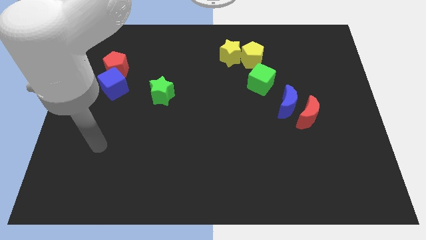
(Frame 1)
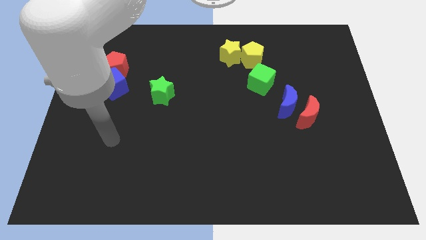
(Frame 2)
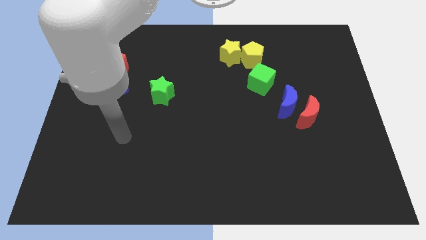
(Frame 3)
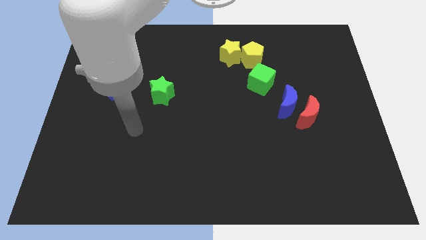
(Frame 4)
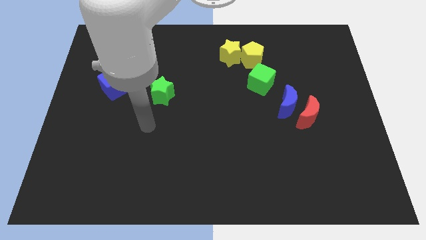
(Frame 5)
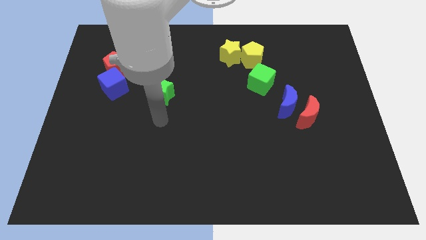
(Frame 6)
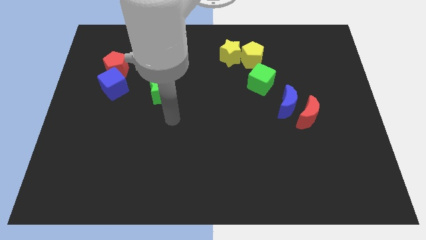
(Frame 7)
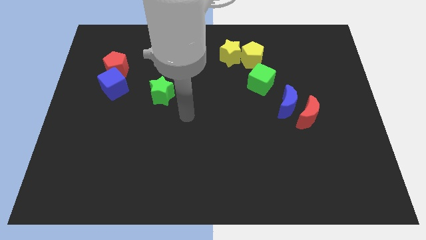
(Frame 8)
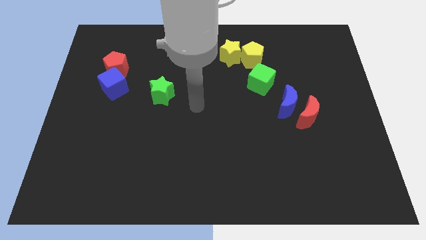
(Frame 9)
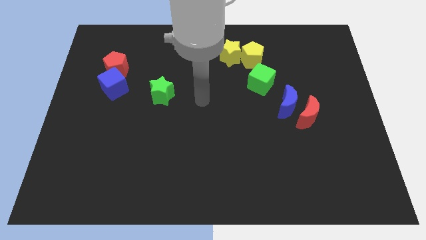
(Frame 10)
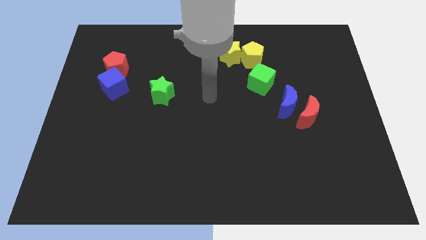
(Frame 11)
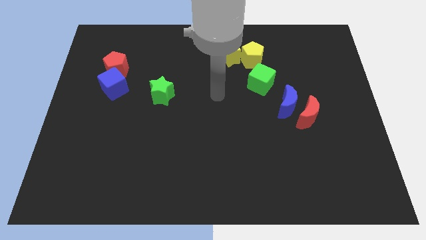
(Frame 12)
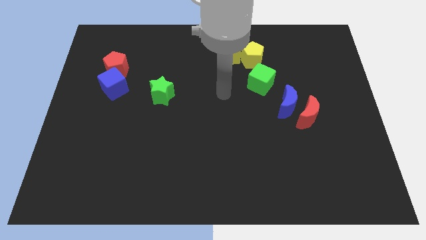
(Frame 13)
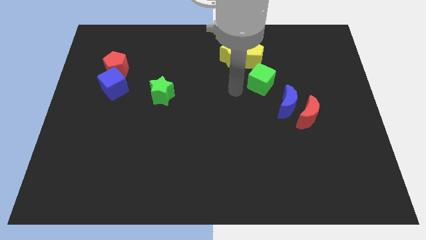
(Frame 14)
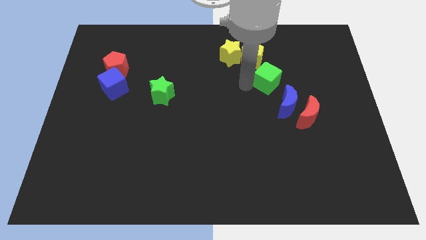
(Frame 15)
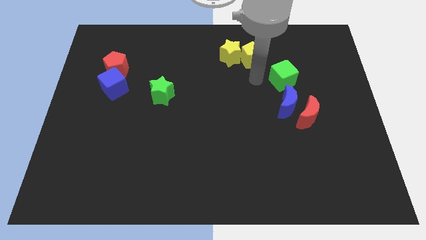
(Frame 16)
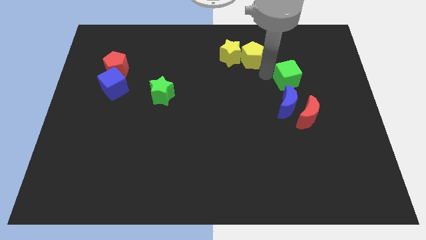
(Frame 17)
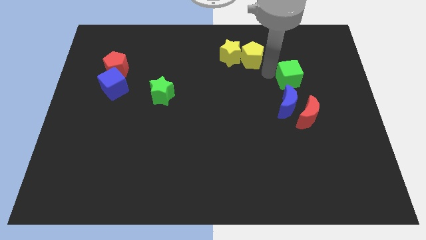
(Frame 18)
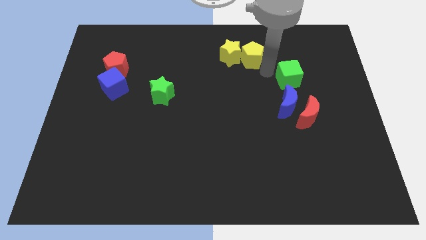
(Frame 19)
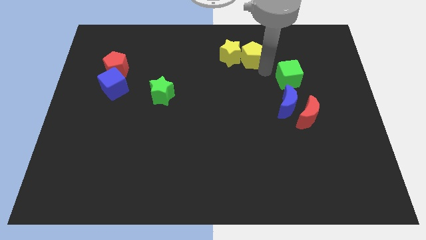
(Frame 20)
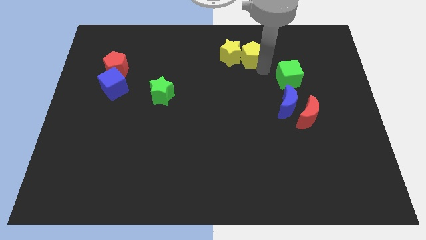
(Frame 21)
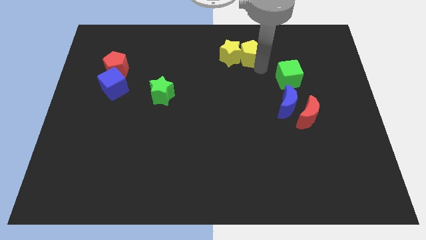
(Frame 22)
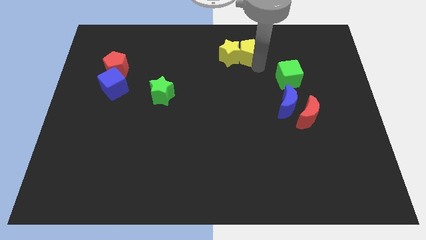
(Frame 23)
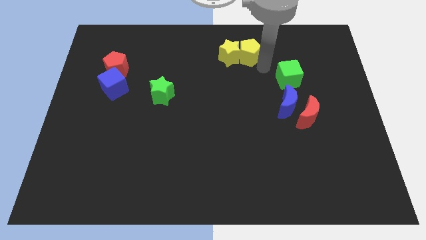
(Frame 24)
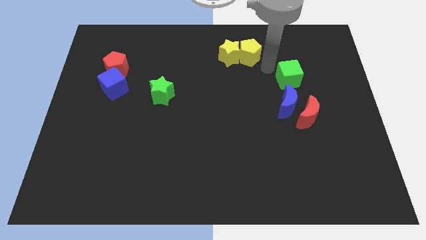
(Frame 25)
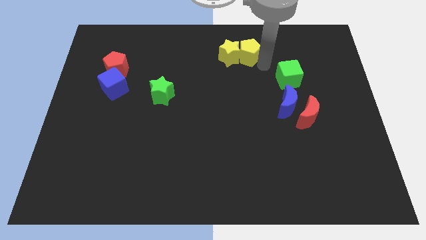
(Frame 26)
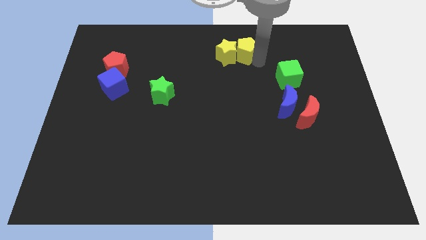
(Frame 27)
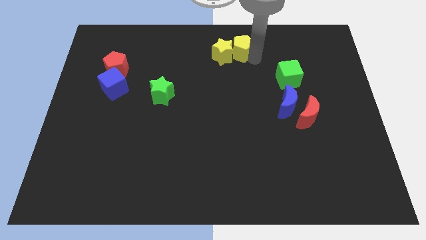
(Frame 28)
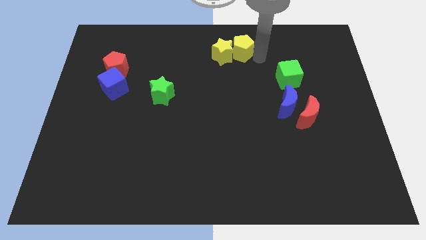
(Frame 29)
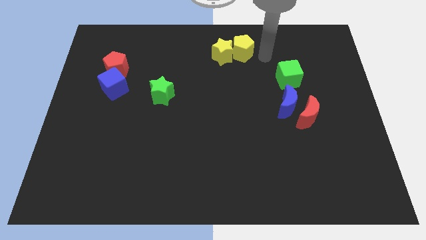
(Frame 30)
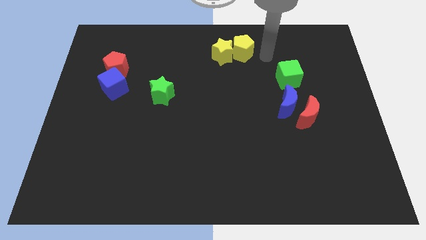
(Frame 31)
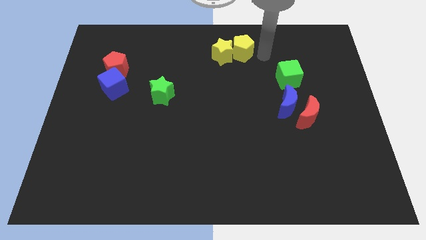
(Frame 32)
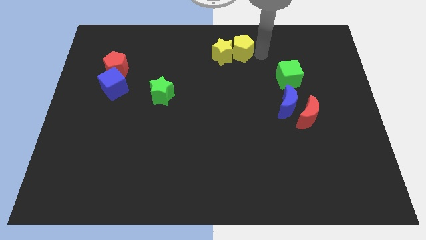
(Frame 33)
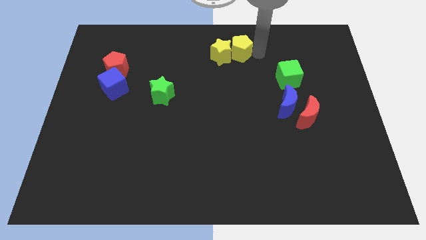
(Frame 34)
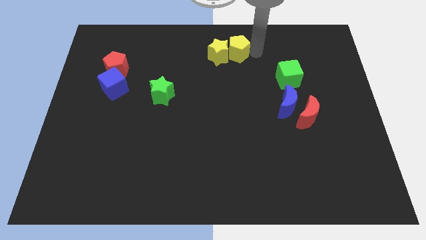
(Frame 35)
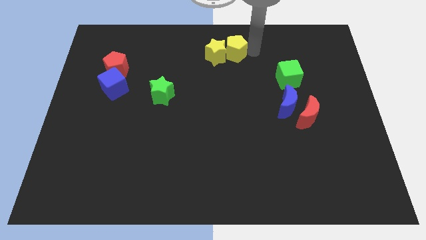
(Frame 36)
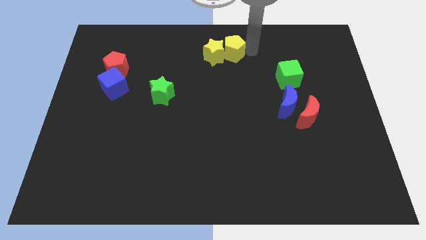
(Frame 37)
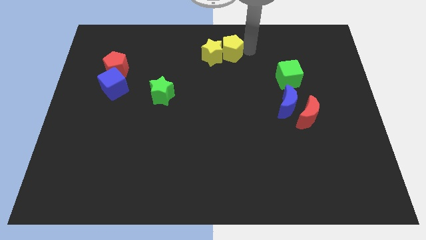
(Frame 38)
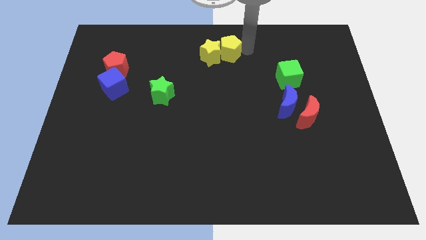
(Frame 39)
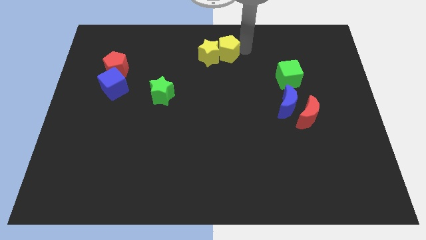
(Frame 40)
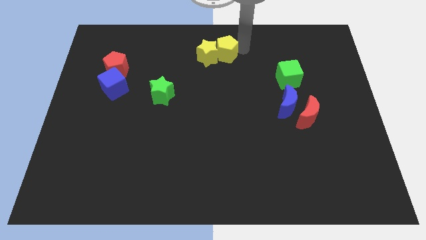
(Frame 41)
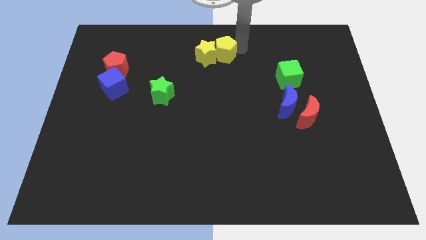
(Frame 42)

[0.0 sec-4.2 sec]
move the yellow pentagon left somewhat

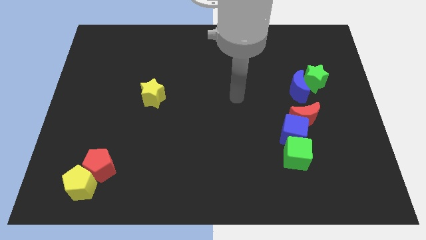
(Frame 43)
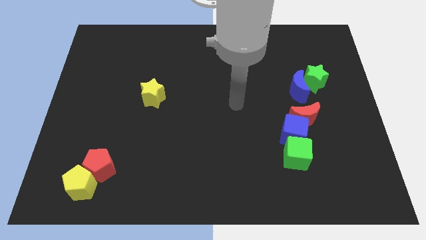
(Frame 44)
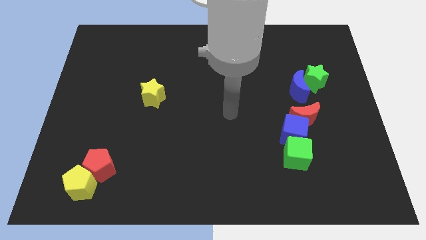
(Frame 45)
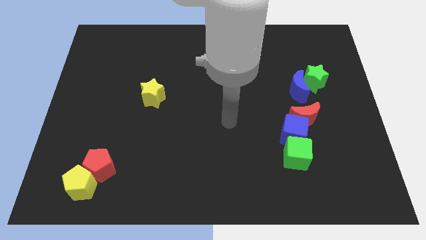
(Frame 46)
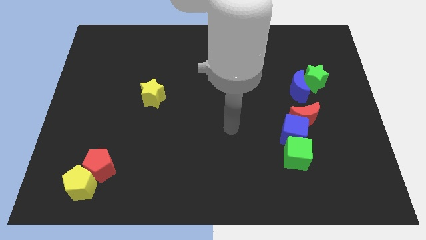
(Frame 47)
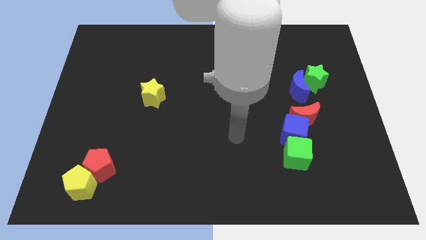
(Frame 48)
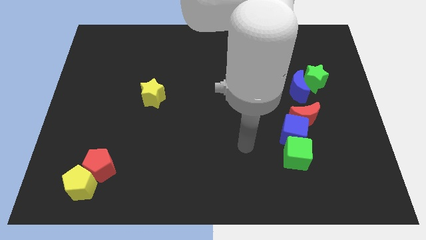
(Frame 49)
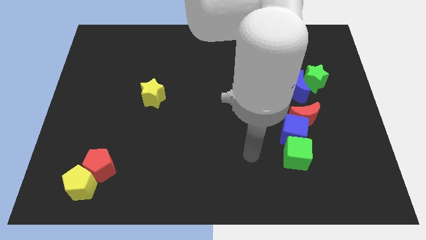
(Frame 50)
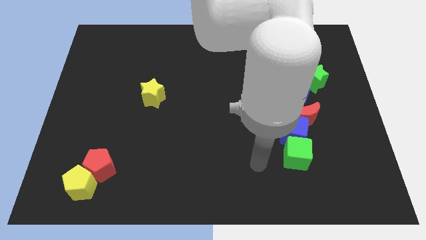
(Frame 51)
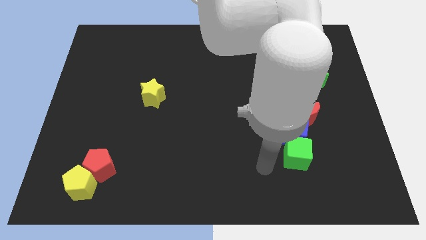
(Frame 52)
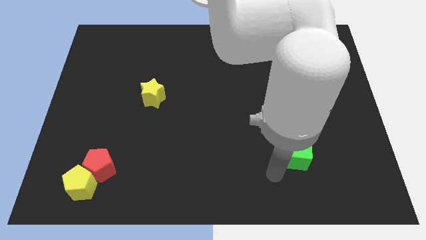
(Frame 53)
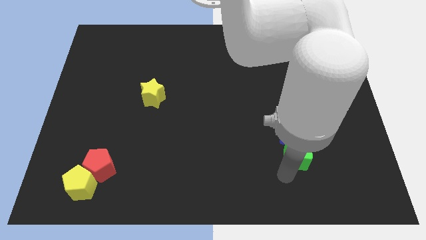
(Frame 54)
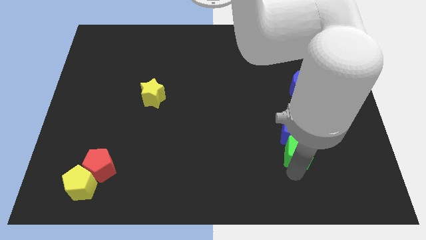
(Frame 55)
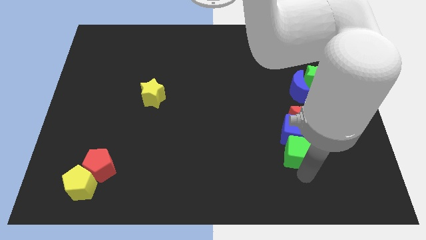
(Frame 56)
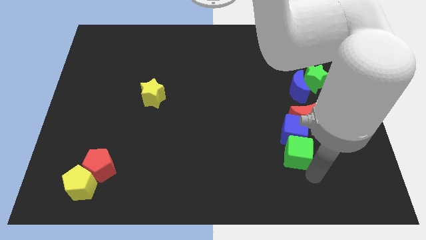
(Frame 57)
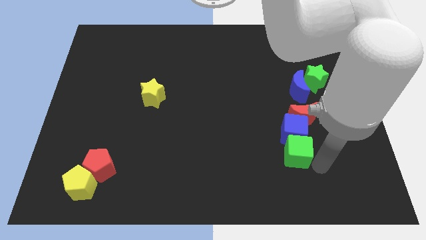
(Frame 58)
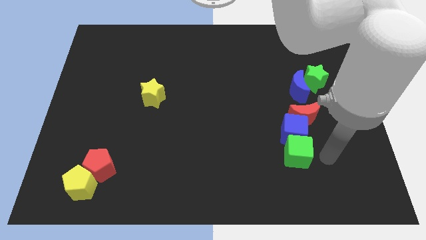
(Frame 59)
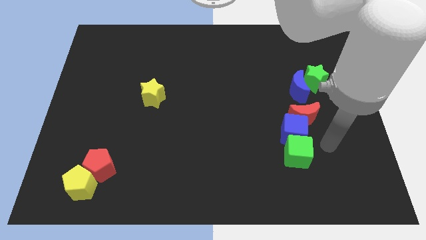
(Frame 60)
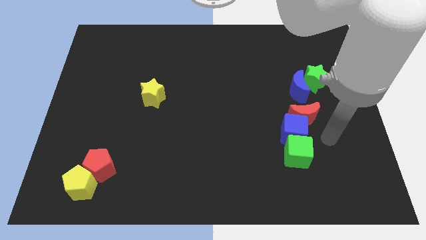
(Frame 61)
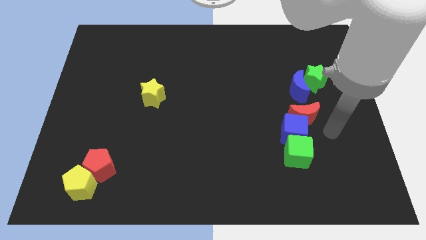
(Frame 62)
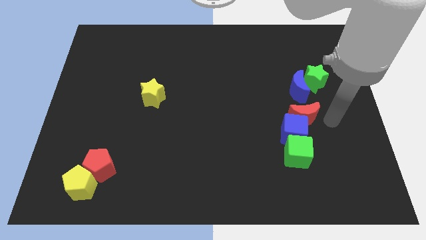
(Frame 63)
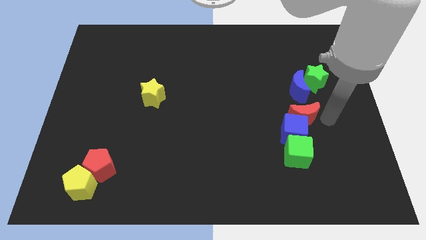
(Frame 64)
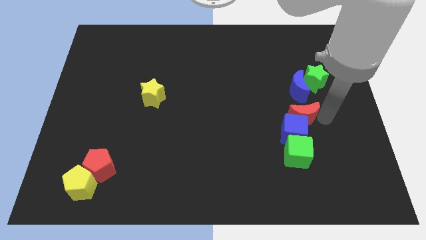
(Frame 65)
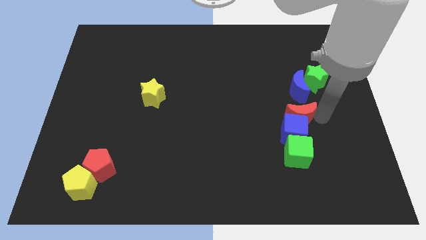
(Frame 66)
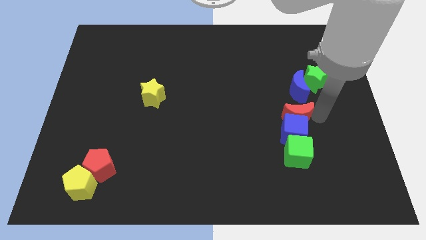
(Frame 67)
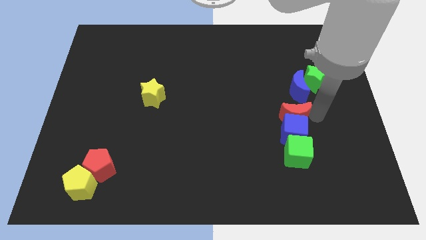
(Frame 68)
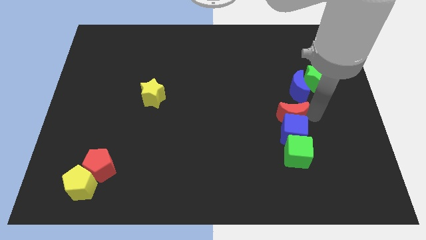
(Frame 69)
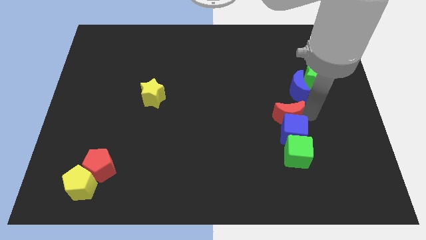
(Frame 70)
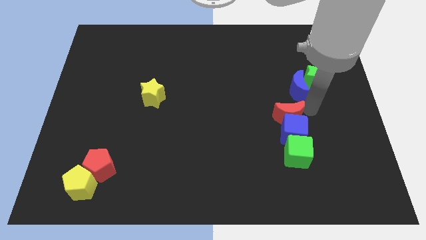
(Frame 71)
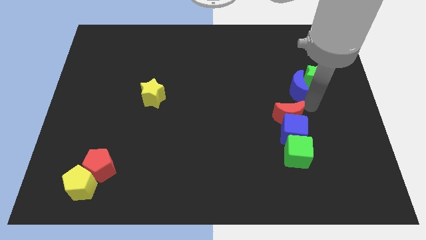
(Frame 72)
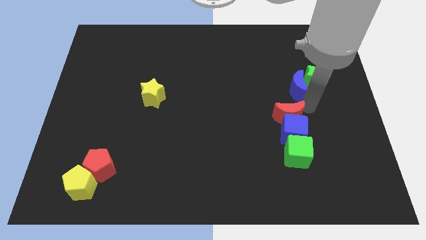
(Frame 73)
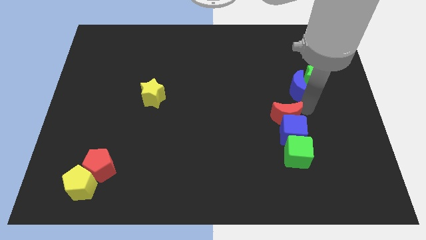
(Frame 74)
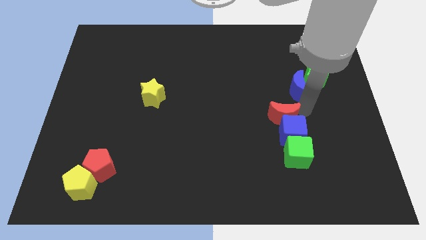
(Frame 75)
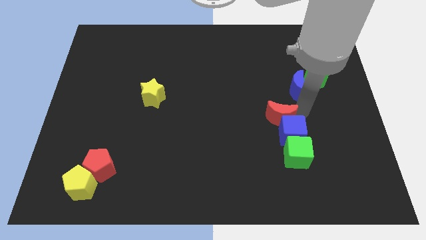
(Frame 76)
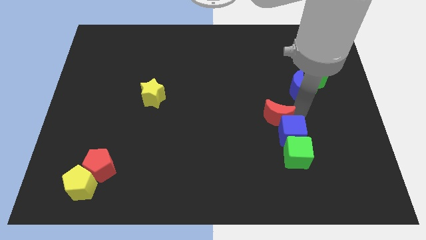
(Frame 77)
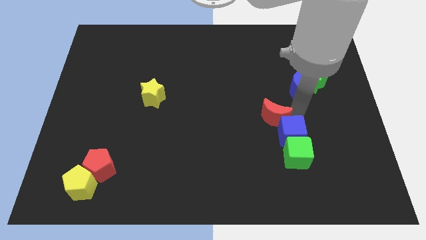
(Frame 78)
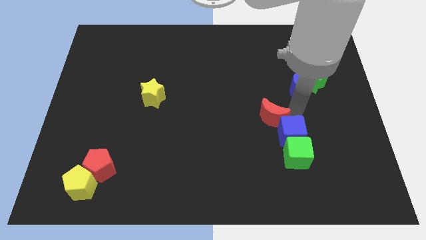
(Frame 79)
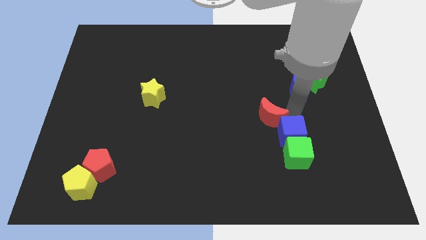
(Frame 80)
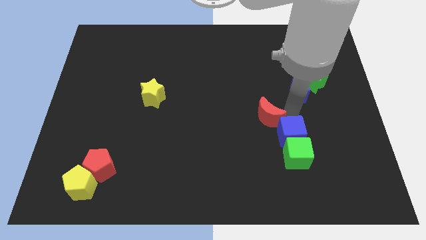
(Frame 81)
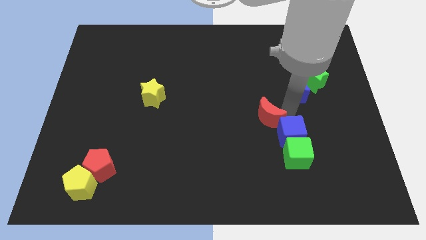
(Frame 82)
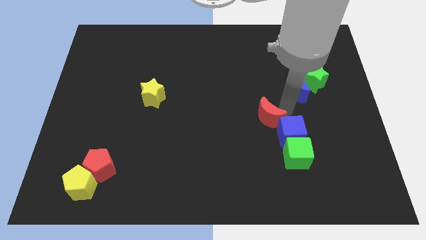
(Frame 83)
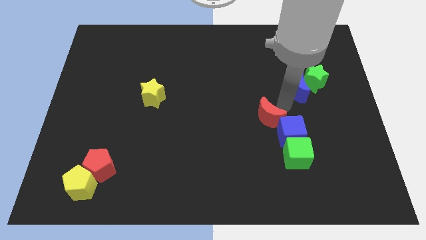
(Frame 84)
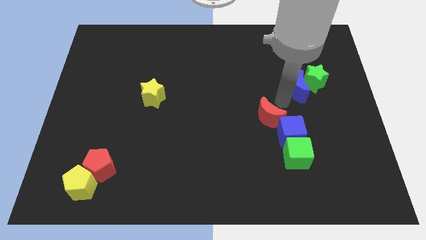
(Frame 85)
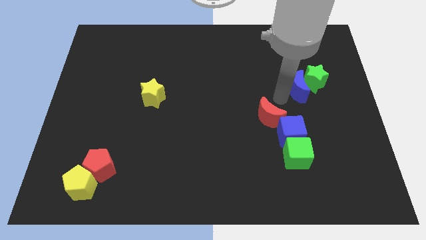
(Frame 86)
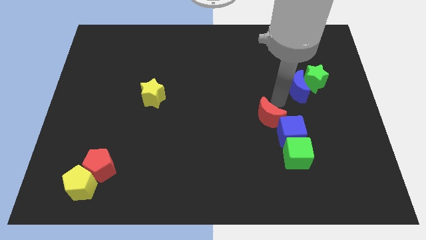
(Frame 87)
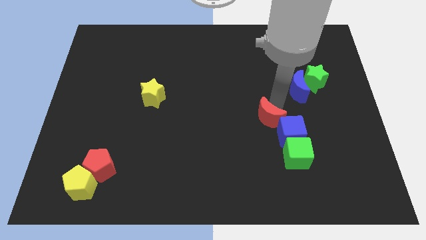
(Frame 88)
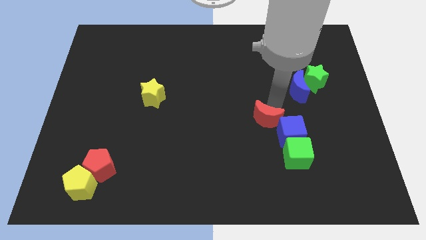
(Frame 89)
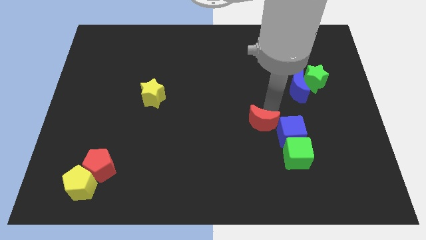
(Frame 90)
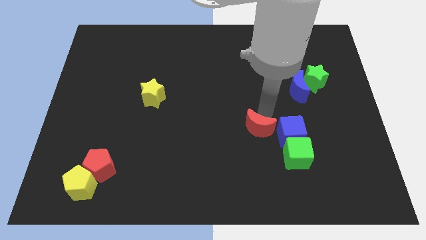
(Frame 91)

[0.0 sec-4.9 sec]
slightly slide the red moon down and to the left diagonally
